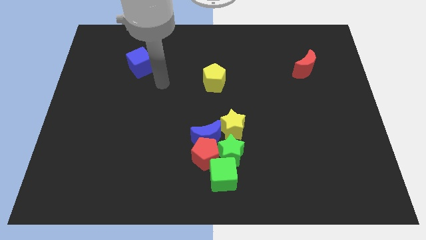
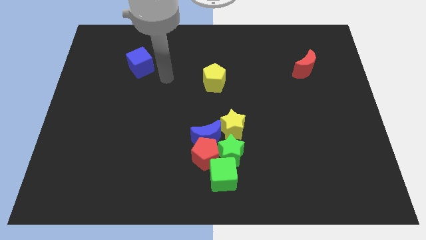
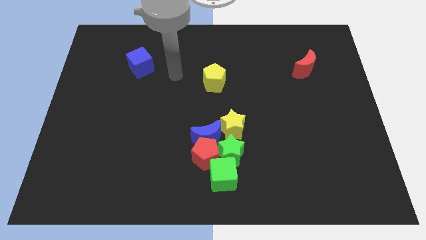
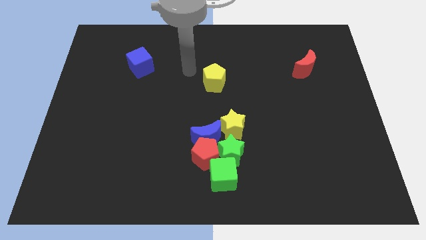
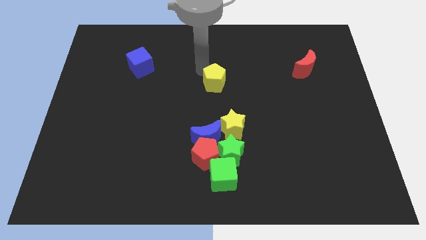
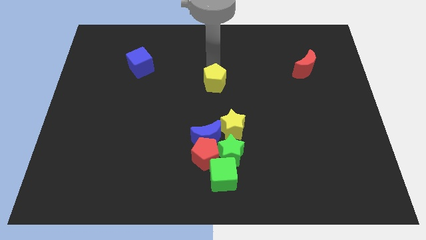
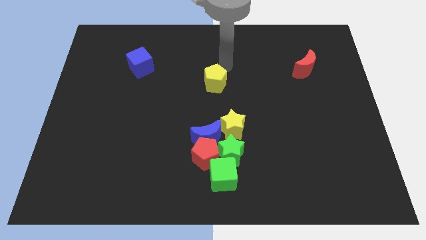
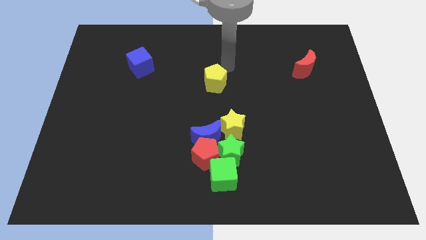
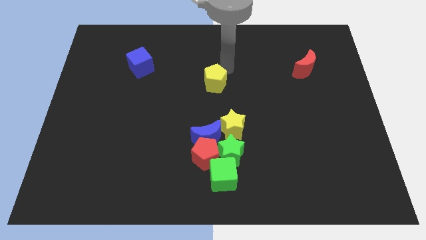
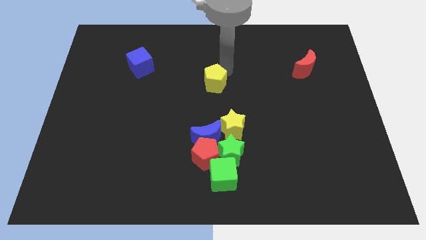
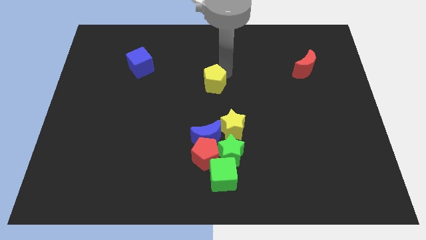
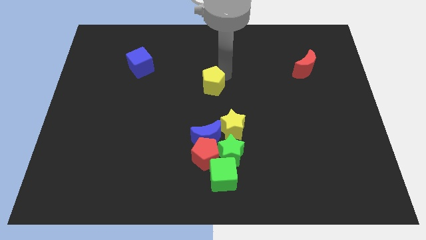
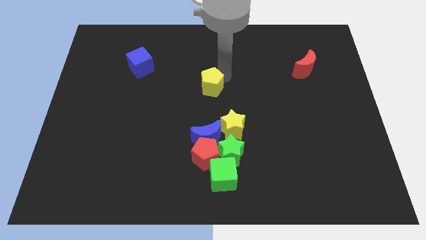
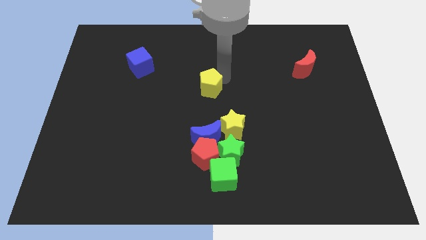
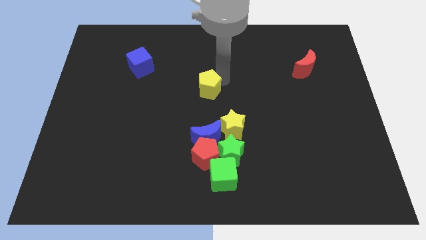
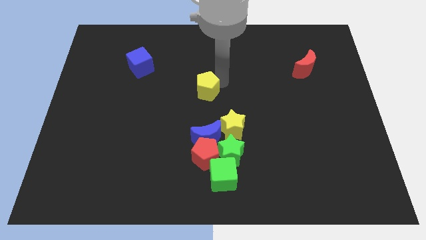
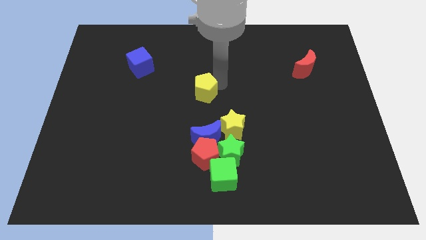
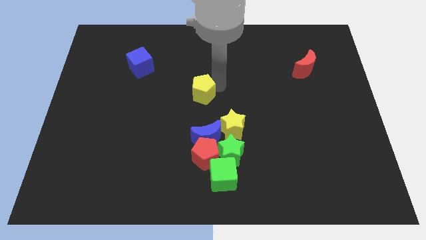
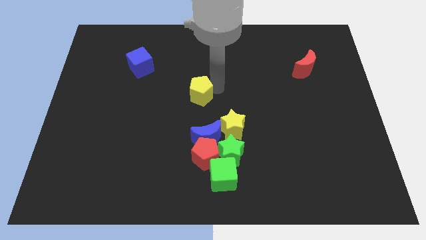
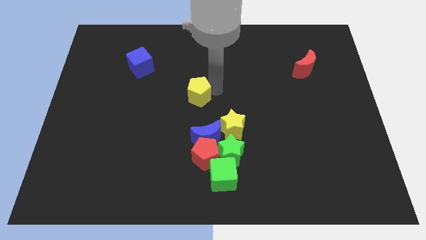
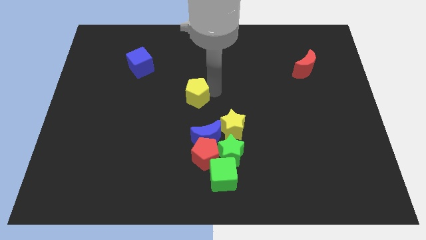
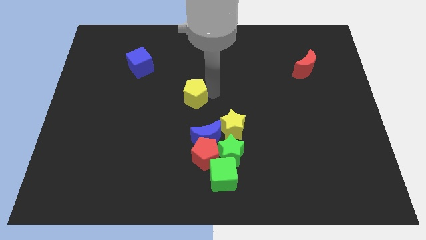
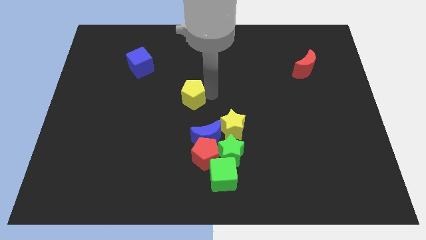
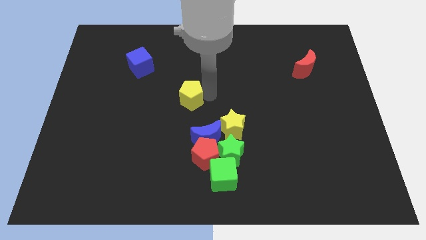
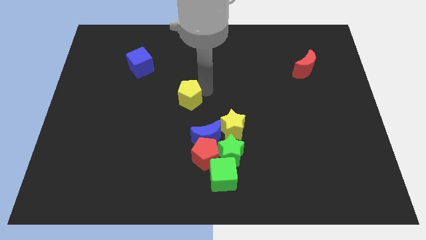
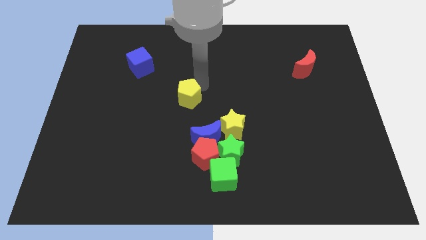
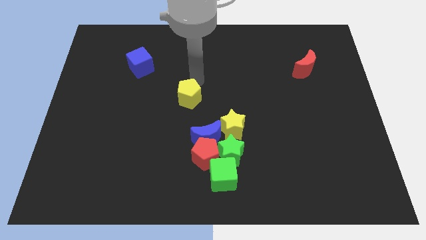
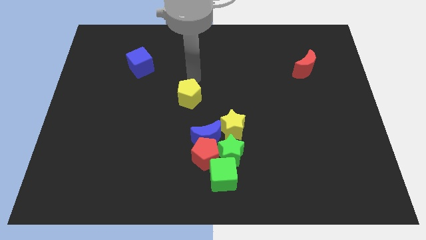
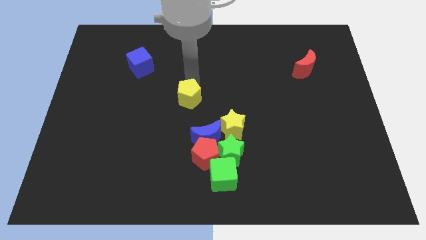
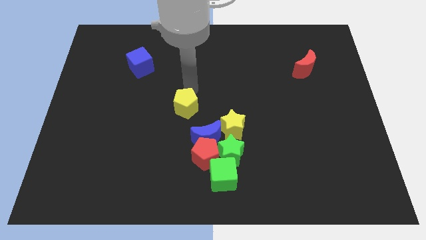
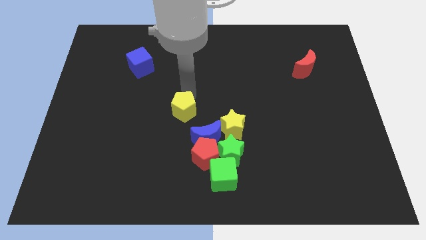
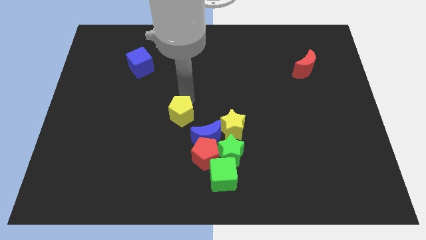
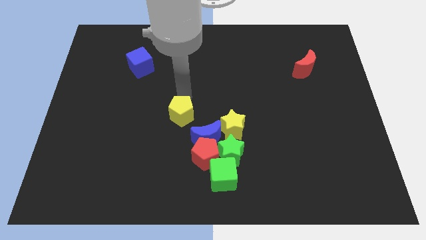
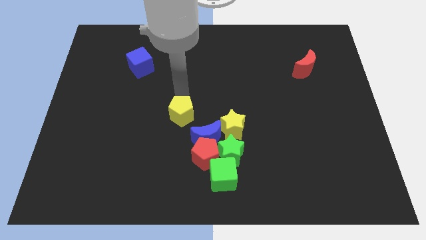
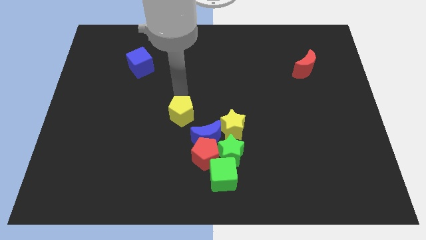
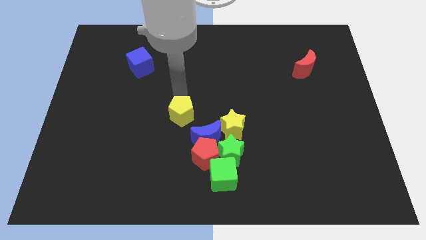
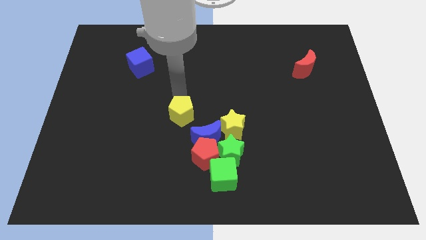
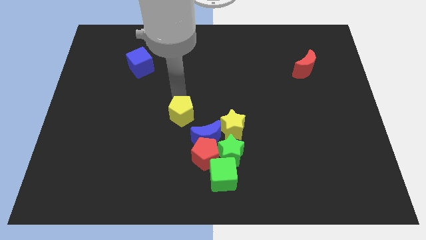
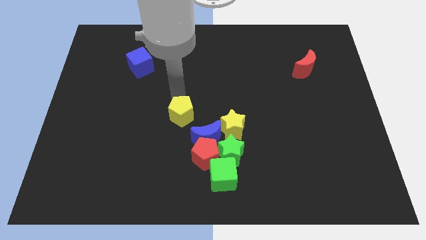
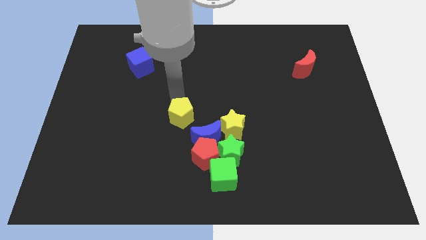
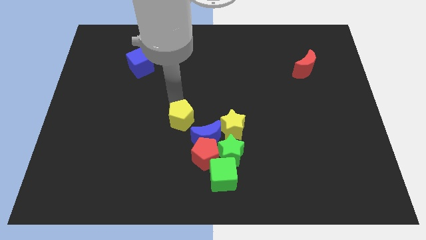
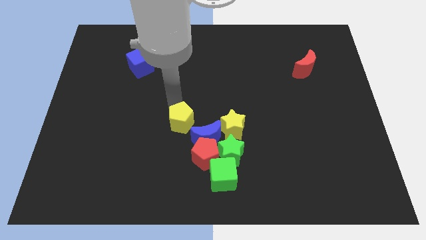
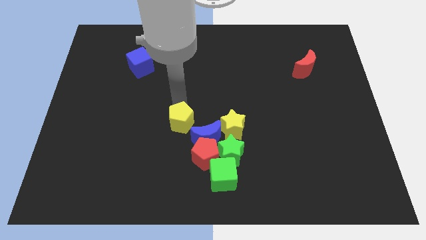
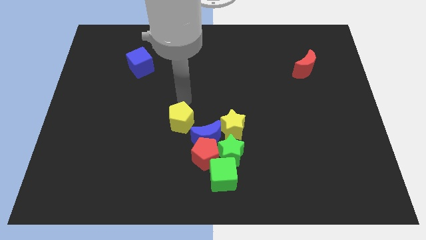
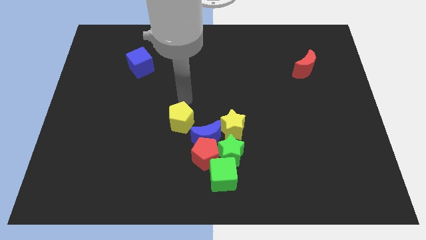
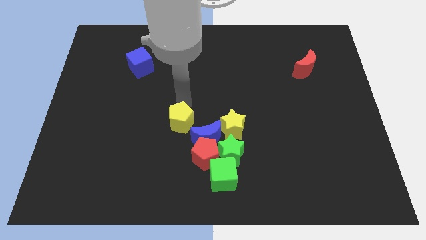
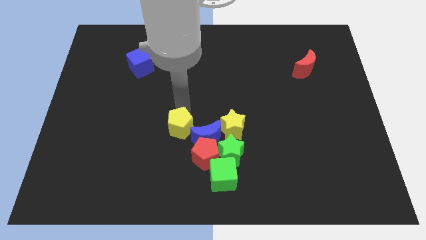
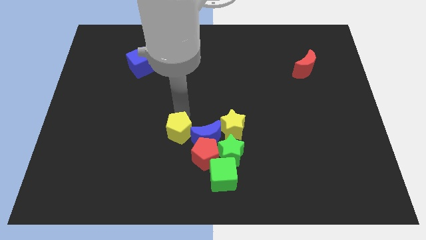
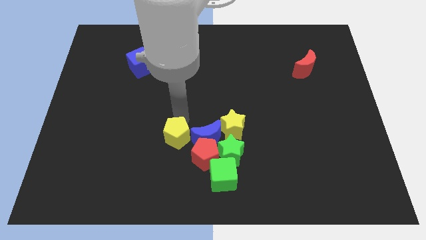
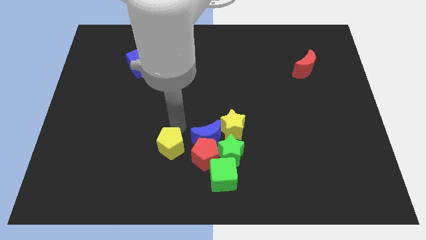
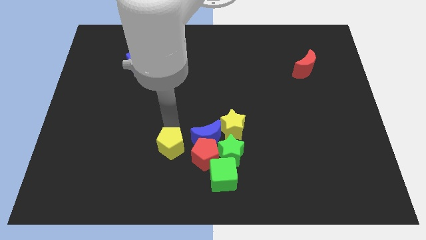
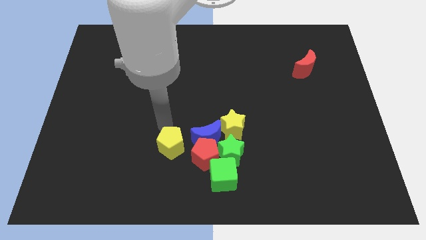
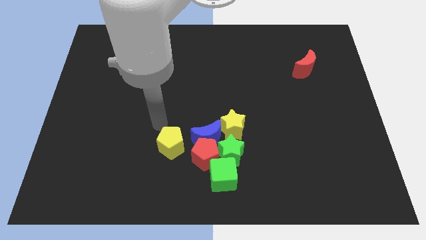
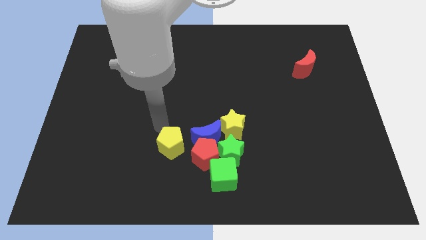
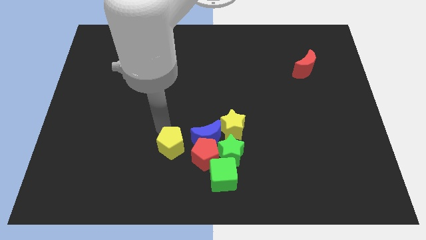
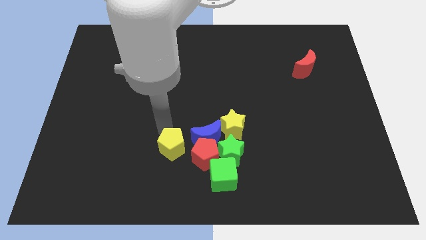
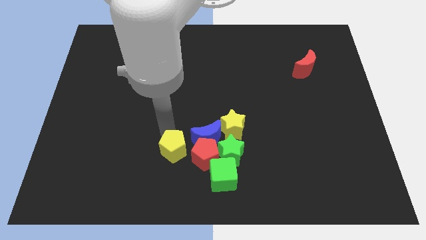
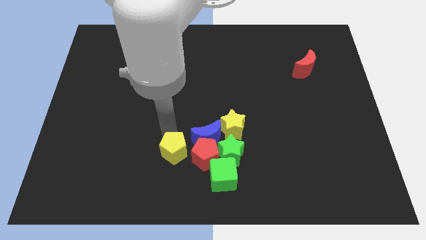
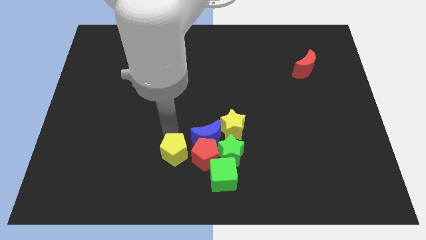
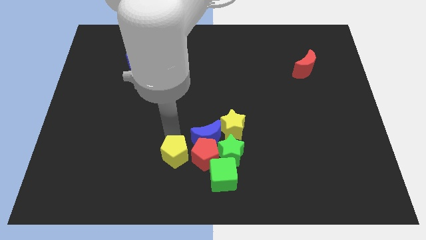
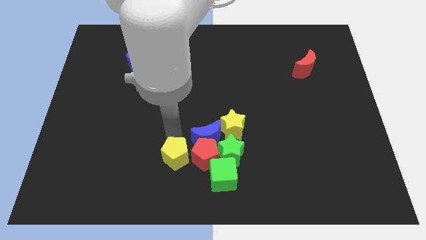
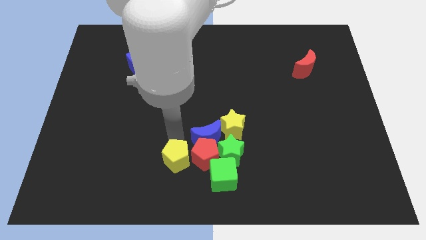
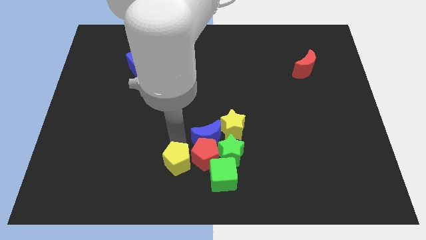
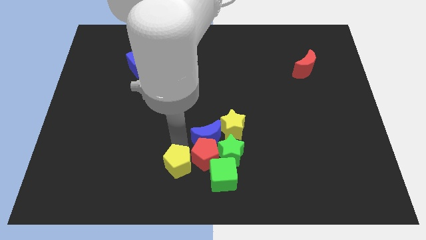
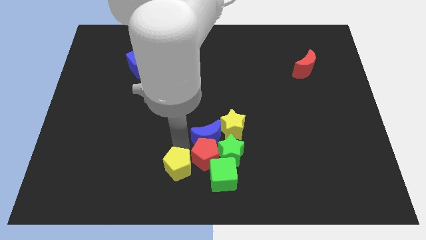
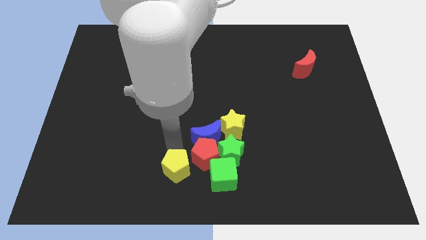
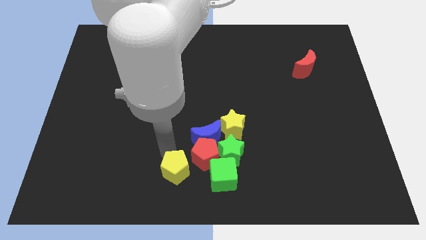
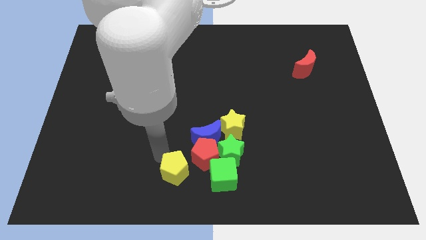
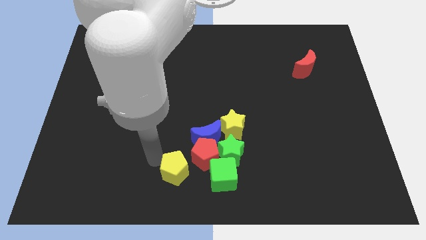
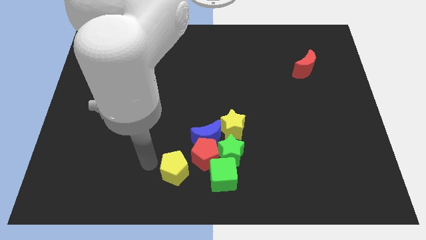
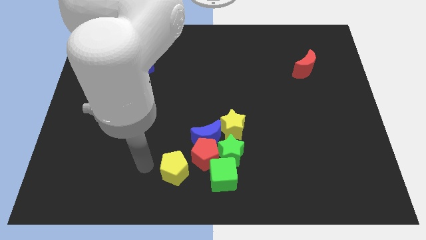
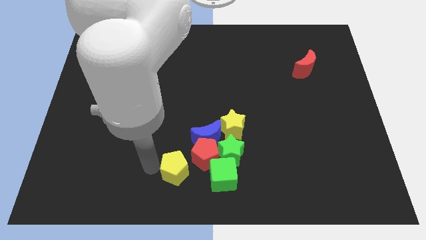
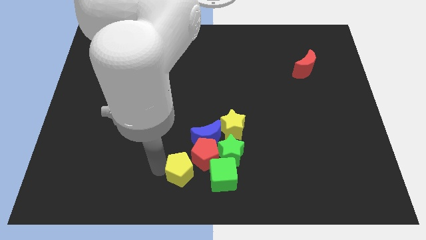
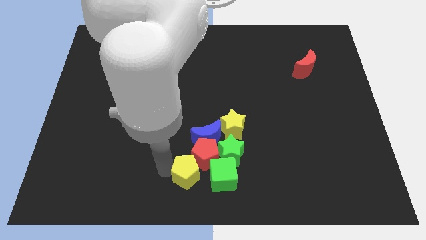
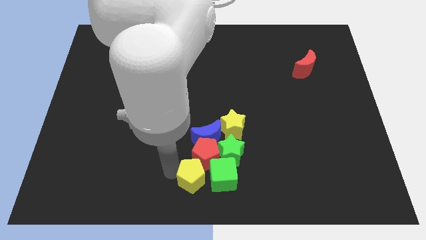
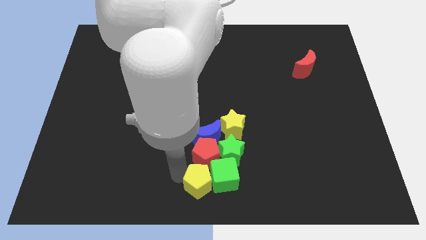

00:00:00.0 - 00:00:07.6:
push the yellow pentagon towards the green cube

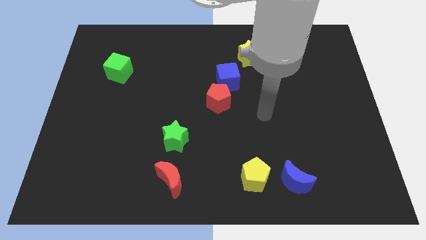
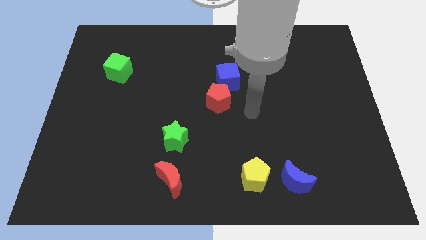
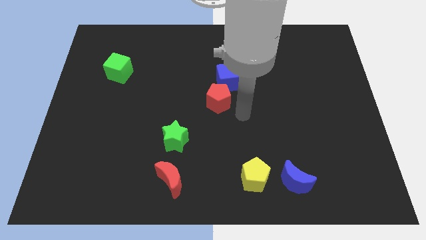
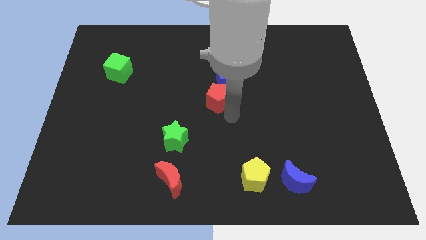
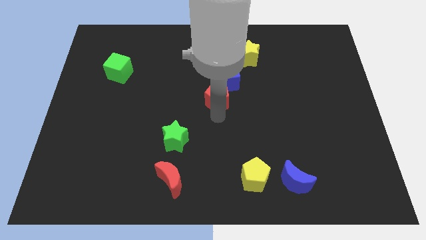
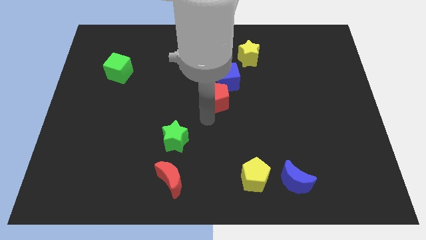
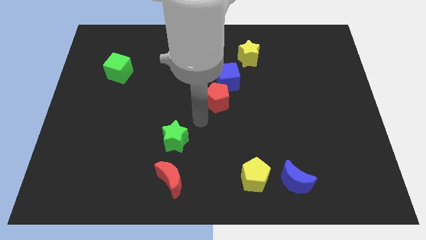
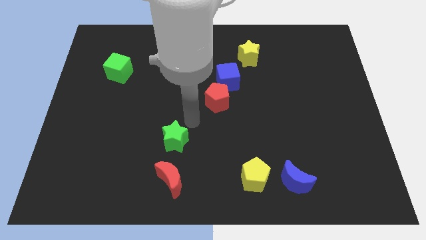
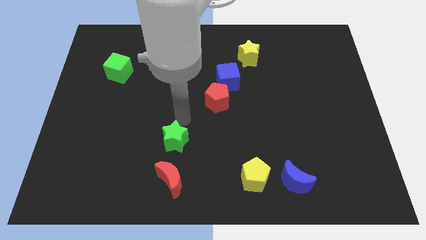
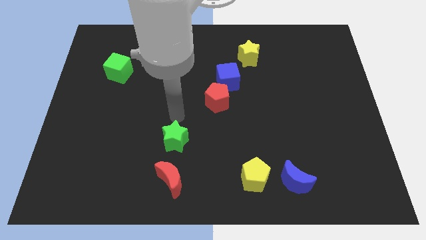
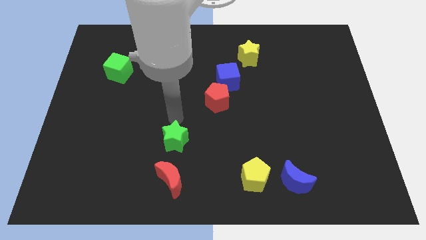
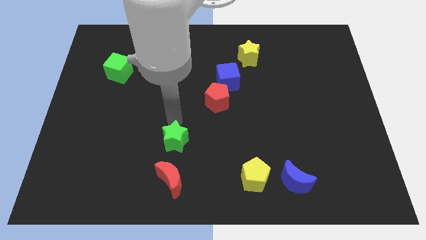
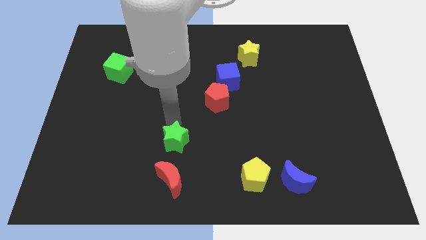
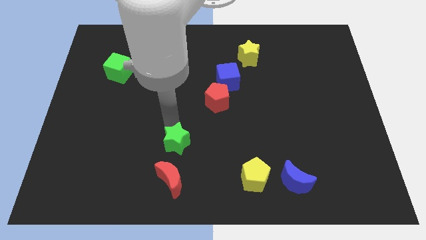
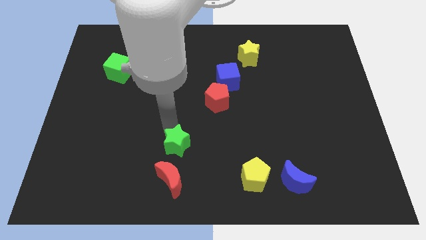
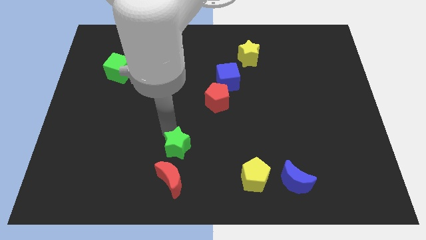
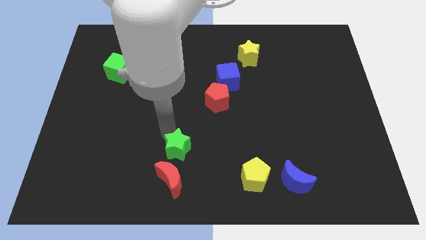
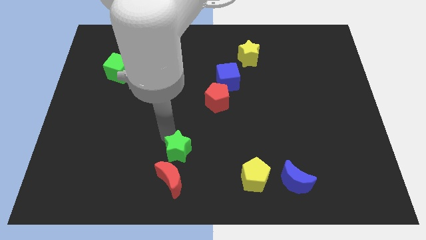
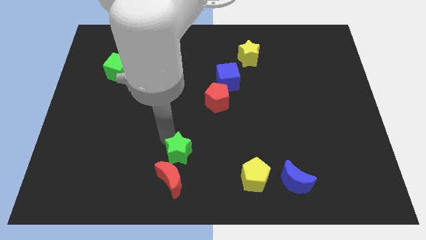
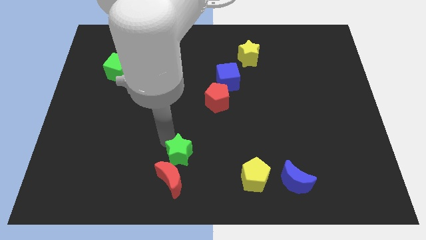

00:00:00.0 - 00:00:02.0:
move the green star to the red moon
